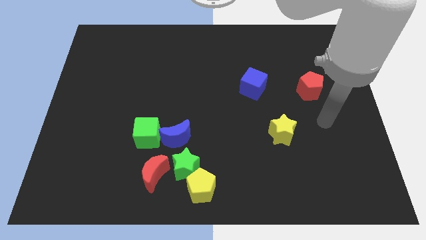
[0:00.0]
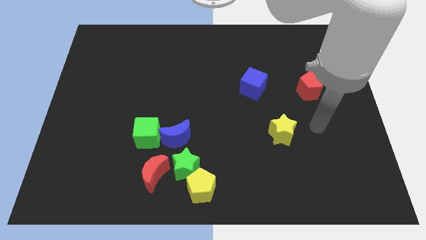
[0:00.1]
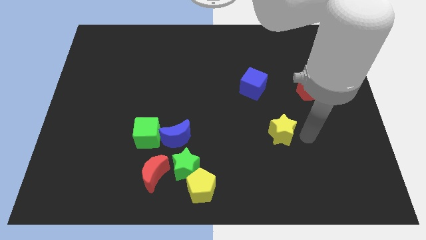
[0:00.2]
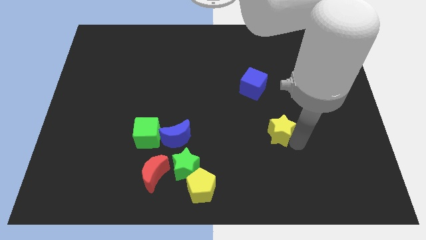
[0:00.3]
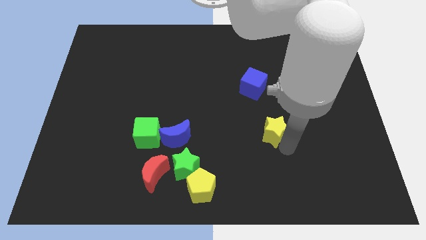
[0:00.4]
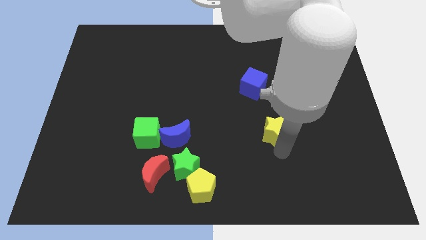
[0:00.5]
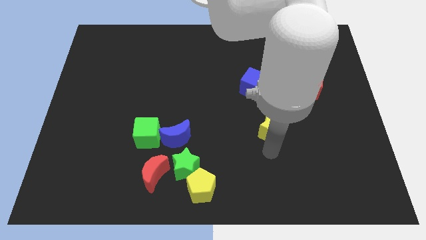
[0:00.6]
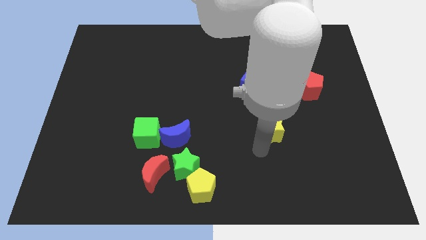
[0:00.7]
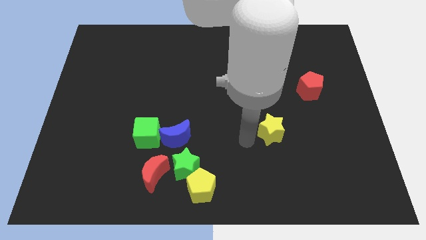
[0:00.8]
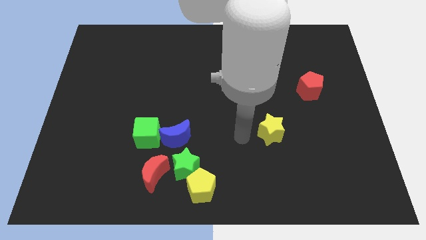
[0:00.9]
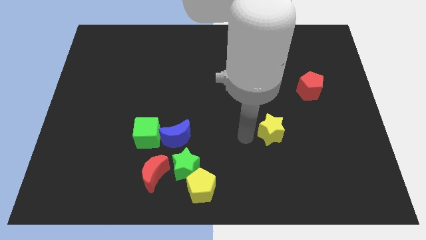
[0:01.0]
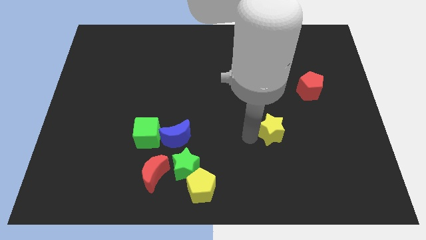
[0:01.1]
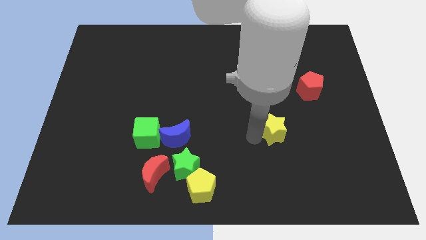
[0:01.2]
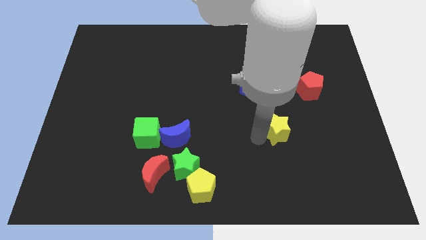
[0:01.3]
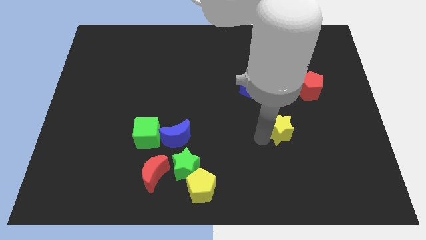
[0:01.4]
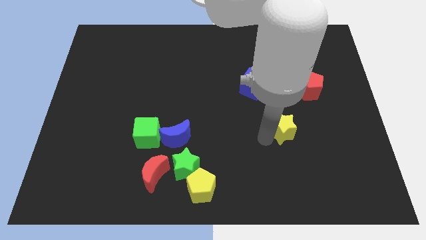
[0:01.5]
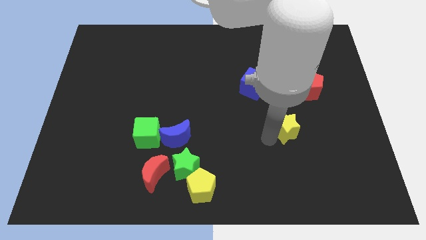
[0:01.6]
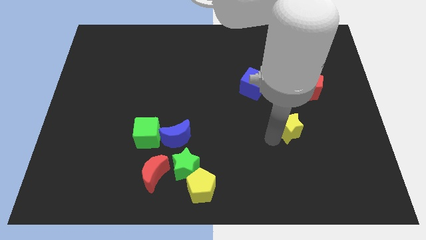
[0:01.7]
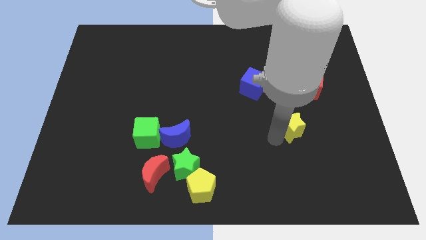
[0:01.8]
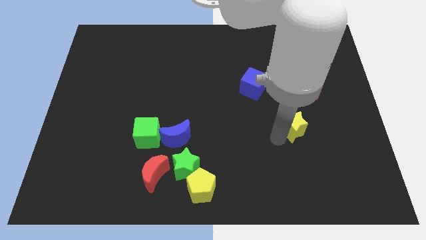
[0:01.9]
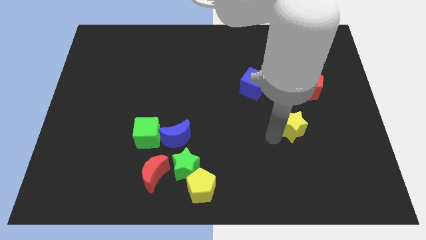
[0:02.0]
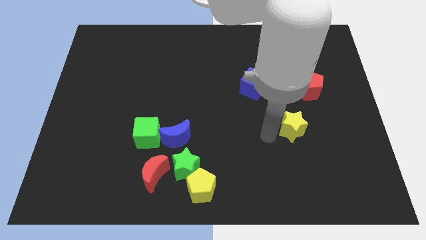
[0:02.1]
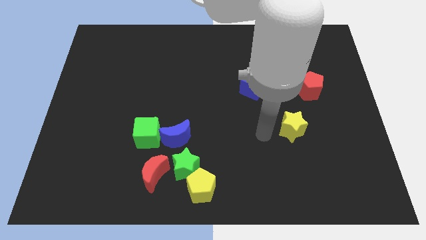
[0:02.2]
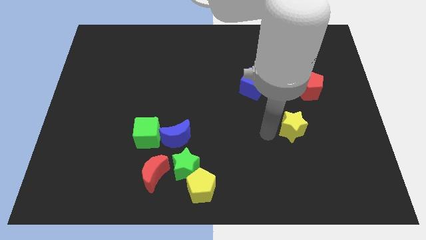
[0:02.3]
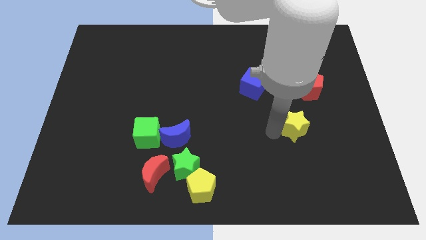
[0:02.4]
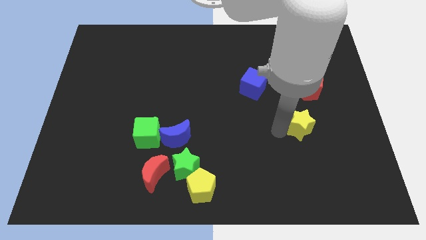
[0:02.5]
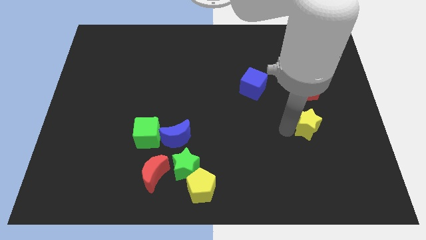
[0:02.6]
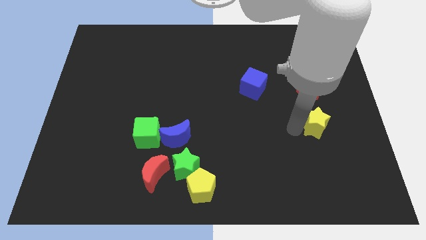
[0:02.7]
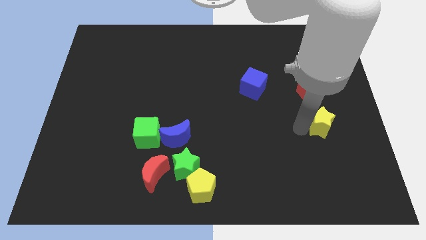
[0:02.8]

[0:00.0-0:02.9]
slide the yellow star slightly diagonally up and right

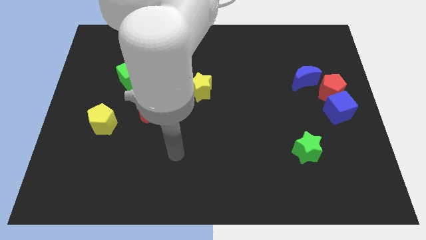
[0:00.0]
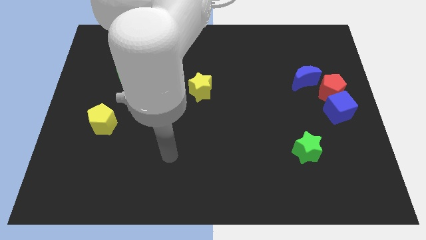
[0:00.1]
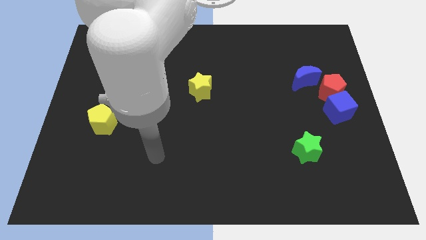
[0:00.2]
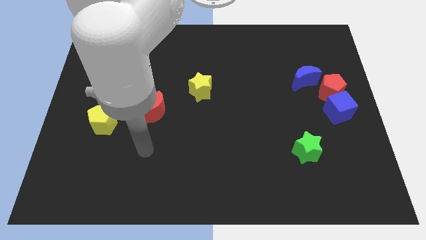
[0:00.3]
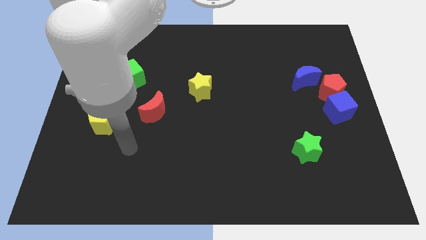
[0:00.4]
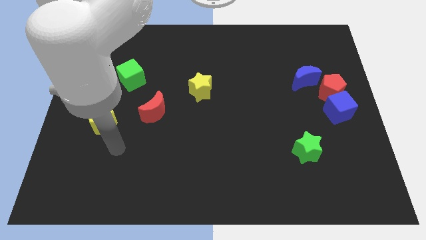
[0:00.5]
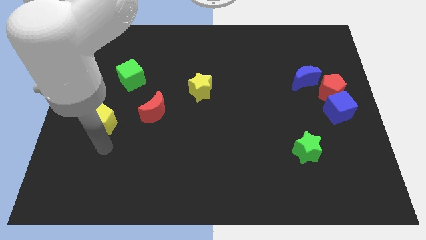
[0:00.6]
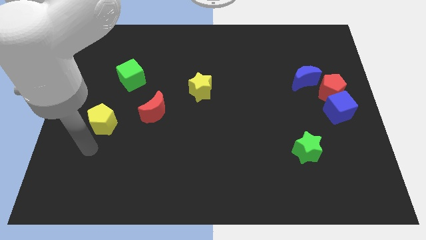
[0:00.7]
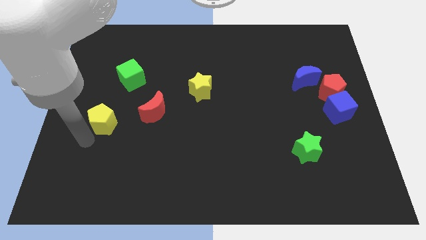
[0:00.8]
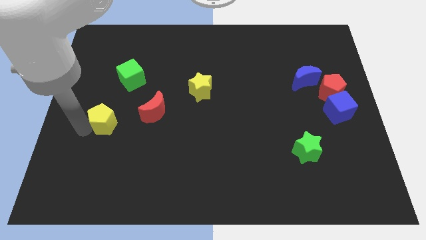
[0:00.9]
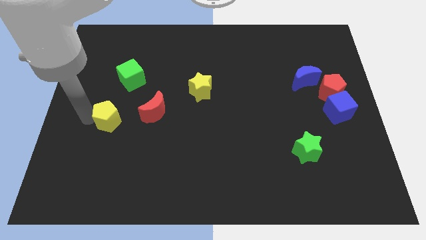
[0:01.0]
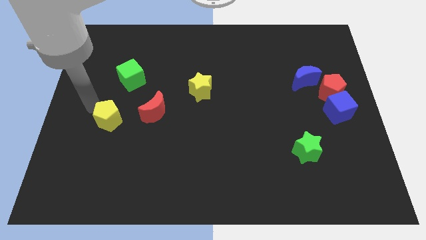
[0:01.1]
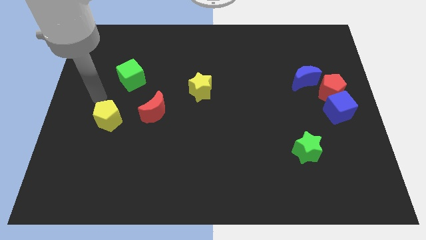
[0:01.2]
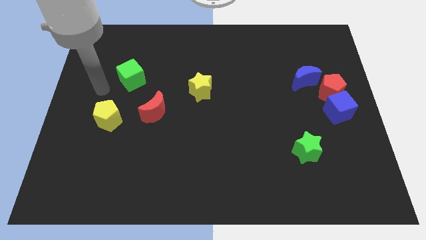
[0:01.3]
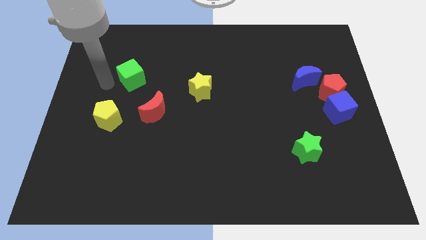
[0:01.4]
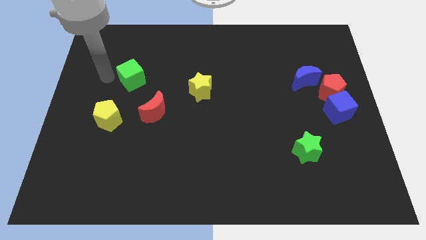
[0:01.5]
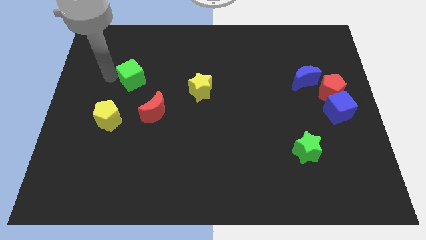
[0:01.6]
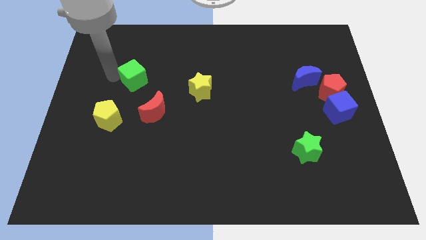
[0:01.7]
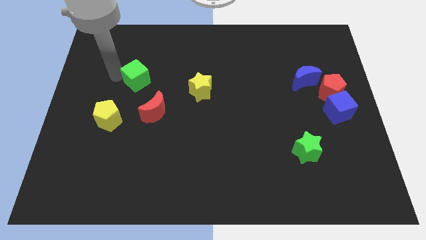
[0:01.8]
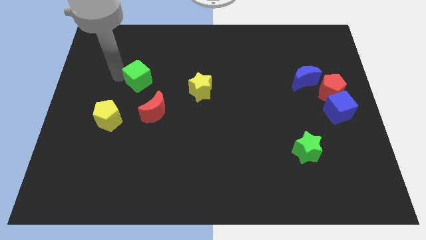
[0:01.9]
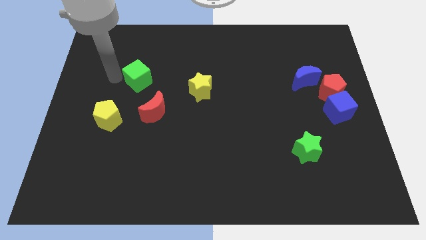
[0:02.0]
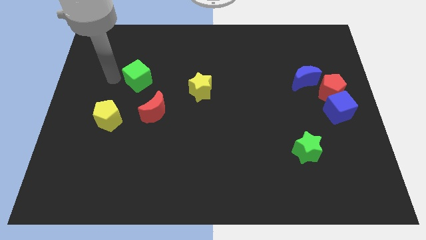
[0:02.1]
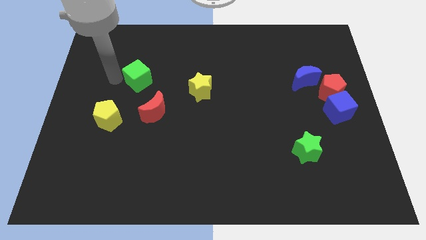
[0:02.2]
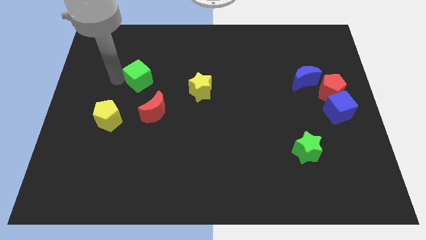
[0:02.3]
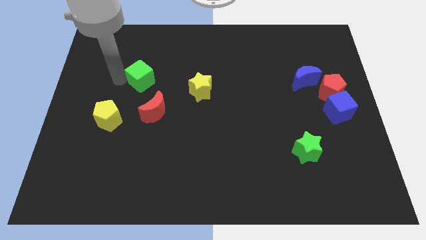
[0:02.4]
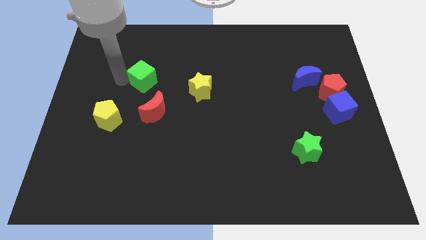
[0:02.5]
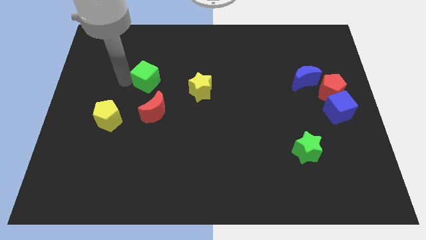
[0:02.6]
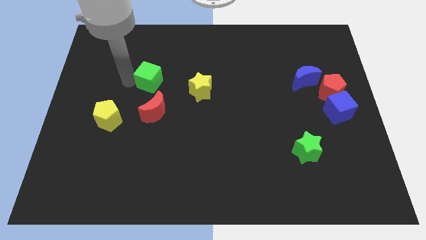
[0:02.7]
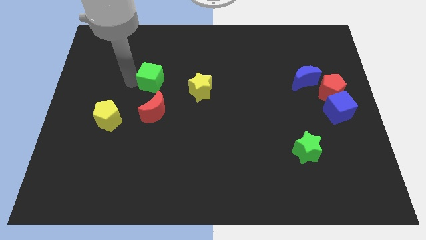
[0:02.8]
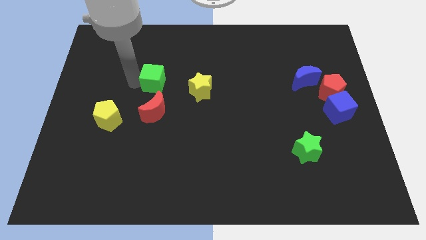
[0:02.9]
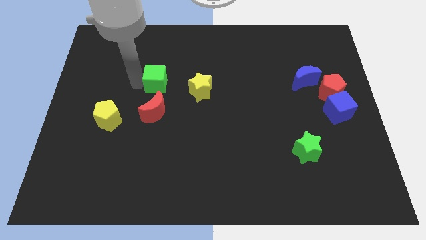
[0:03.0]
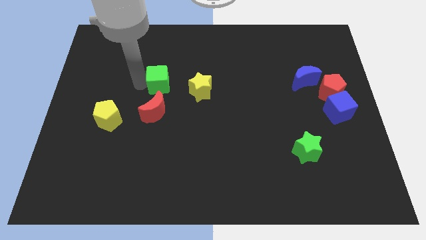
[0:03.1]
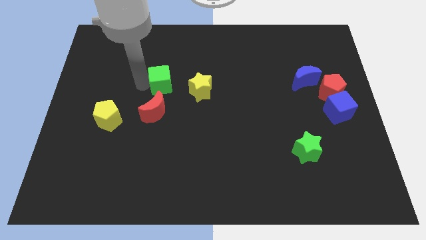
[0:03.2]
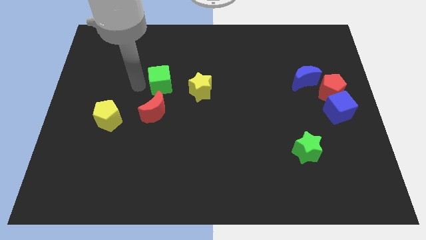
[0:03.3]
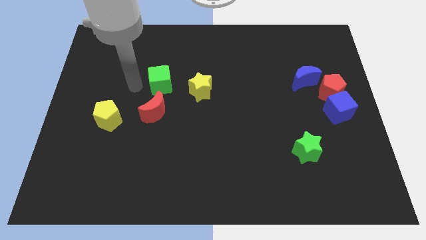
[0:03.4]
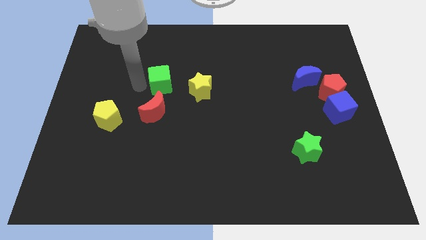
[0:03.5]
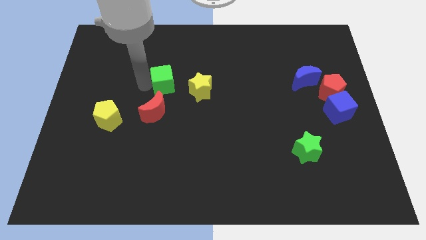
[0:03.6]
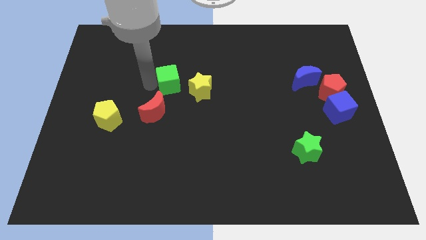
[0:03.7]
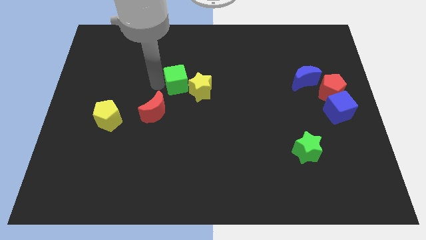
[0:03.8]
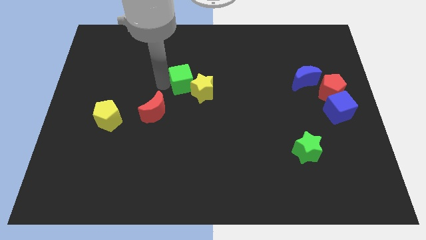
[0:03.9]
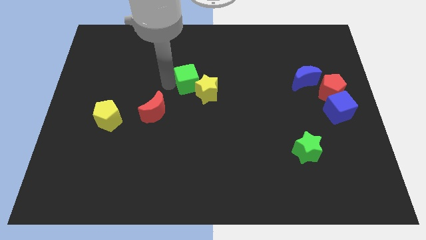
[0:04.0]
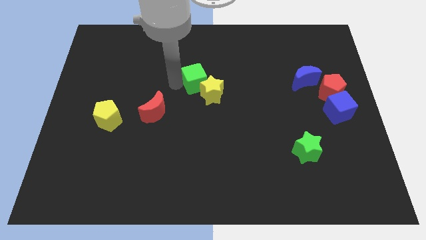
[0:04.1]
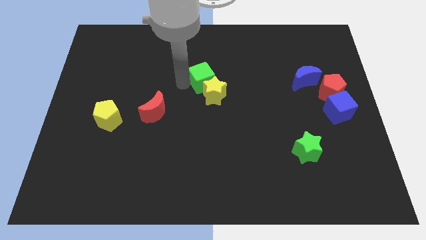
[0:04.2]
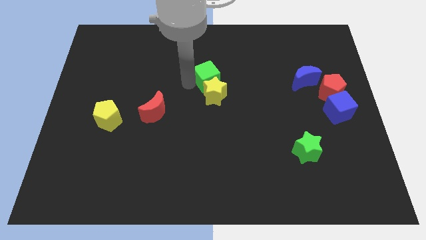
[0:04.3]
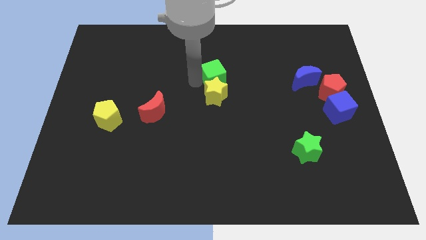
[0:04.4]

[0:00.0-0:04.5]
push the green cube to the right

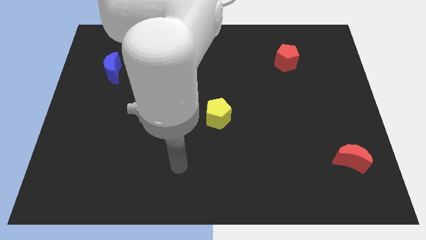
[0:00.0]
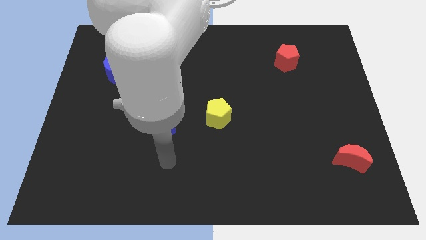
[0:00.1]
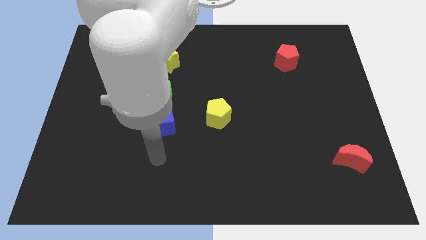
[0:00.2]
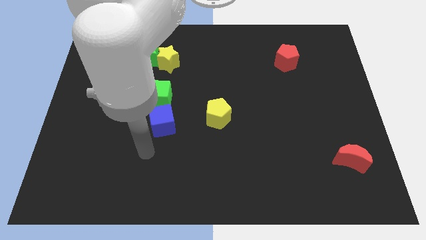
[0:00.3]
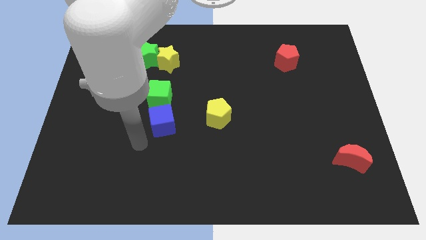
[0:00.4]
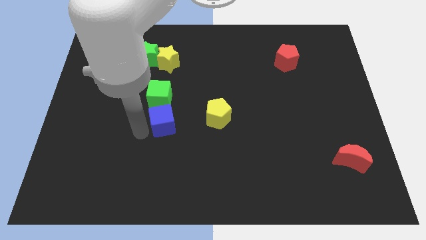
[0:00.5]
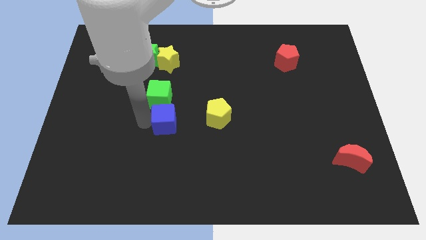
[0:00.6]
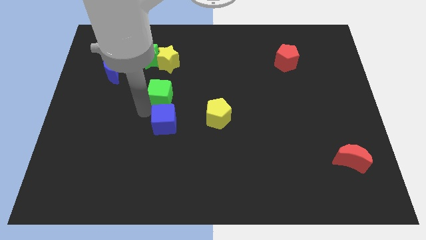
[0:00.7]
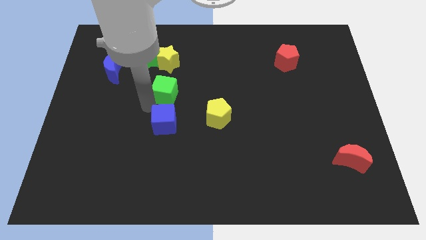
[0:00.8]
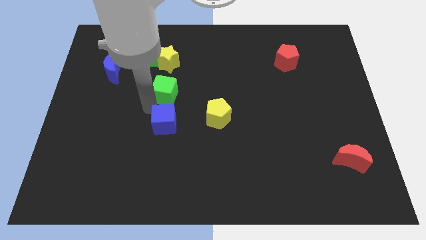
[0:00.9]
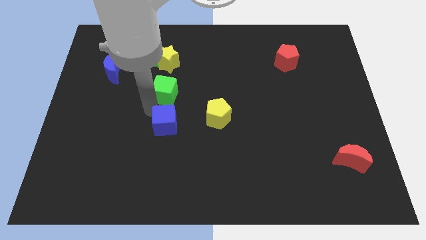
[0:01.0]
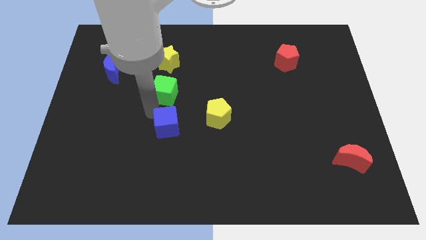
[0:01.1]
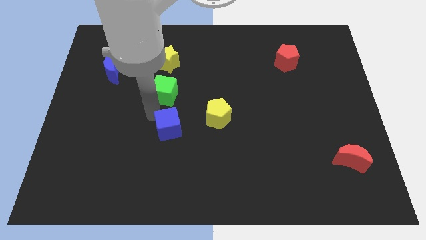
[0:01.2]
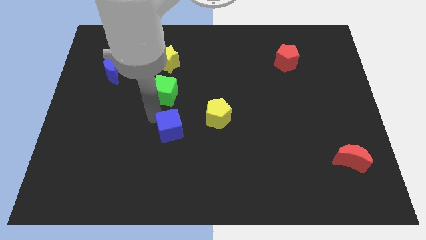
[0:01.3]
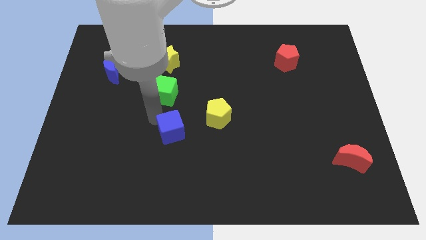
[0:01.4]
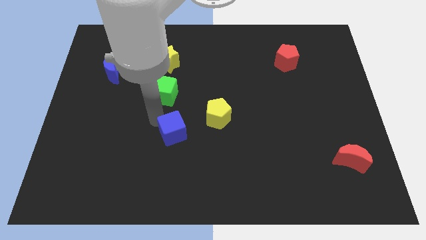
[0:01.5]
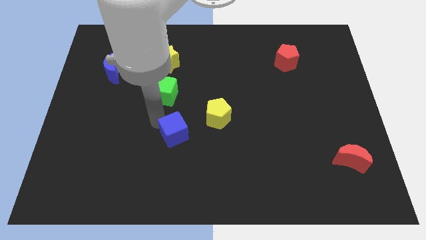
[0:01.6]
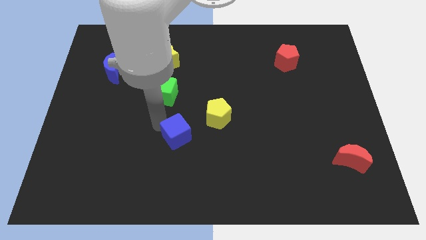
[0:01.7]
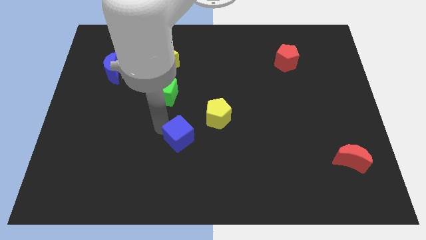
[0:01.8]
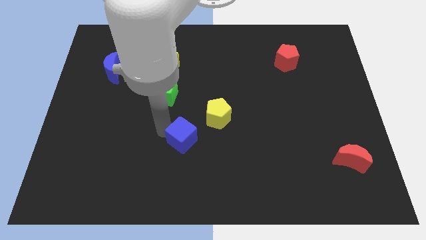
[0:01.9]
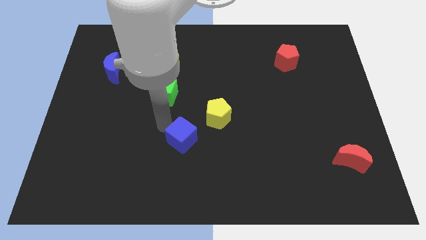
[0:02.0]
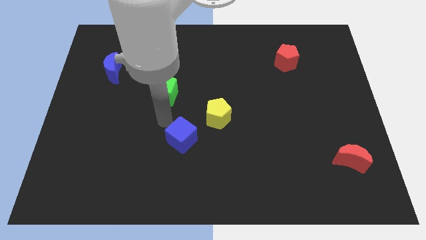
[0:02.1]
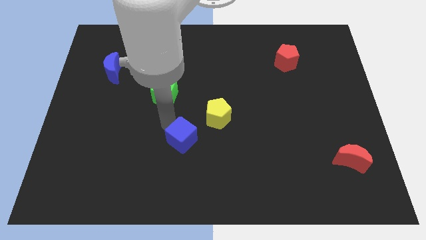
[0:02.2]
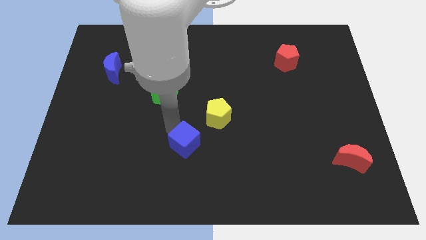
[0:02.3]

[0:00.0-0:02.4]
move the blue cube somewhat downwards and to the right
